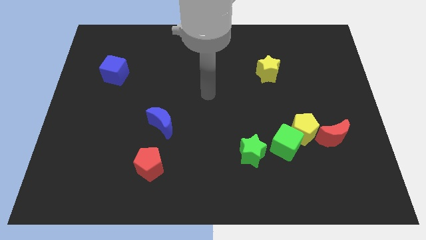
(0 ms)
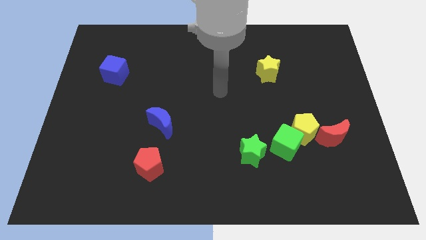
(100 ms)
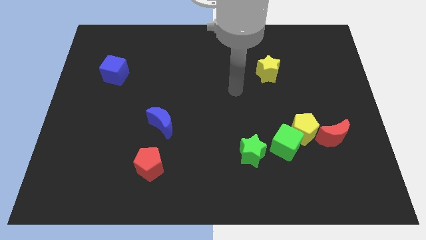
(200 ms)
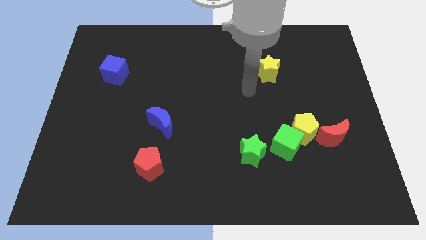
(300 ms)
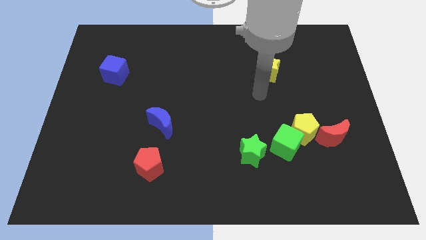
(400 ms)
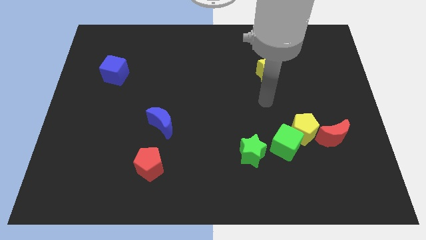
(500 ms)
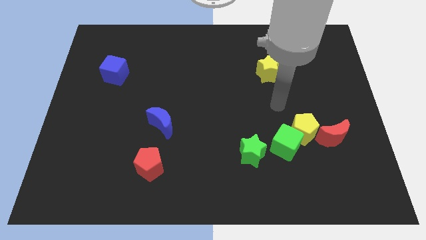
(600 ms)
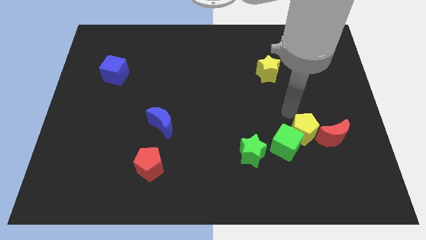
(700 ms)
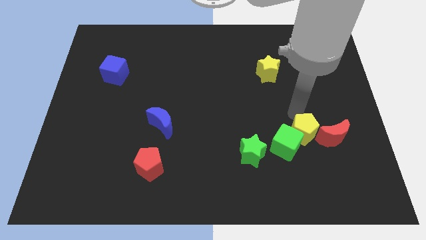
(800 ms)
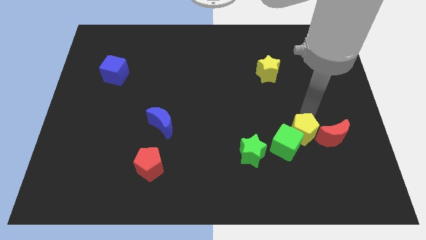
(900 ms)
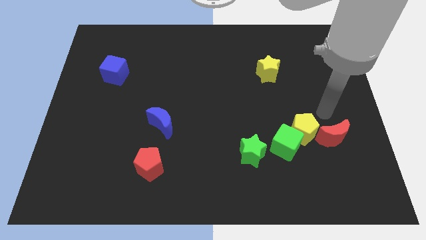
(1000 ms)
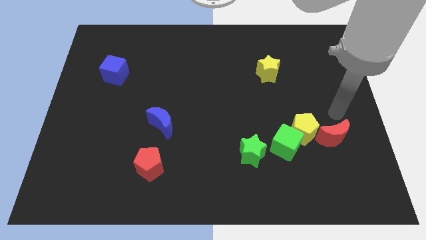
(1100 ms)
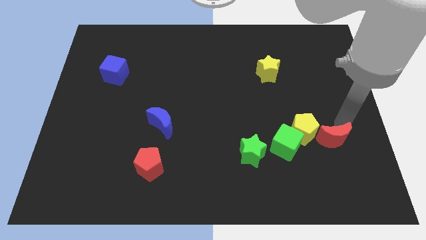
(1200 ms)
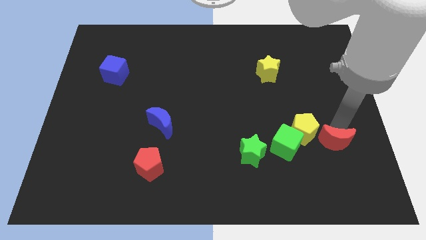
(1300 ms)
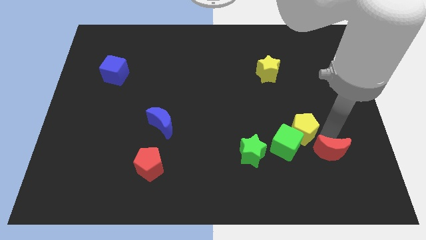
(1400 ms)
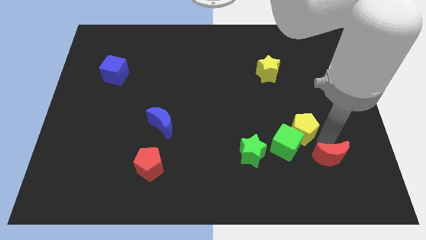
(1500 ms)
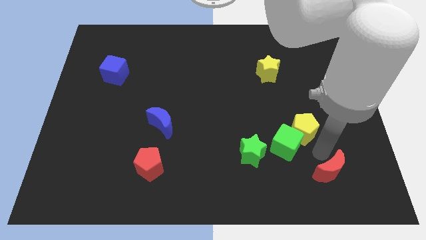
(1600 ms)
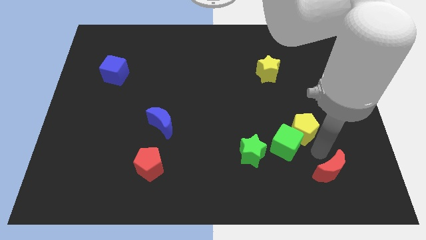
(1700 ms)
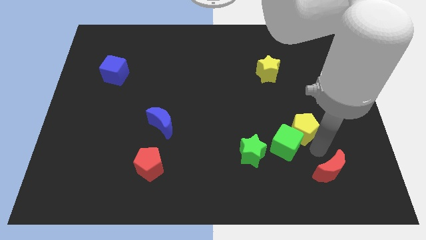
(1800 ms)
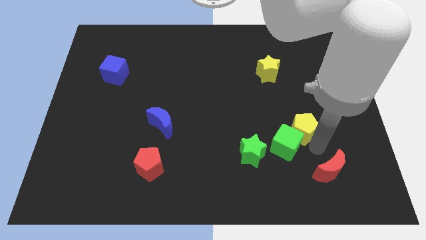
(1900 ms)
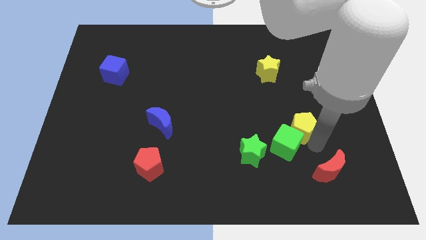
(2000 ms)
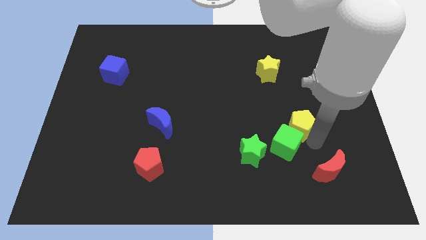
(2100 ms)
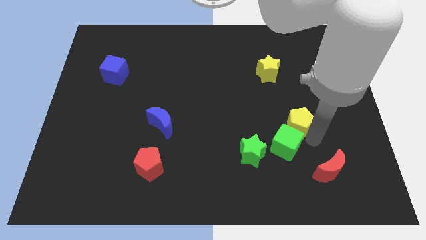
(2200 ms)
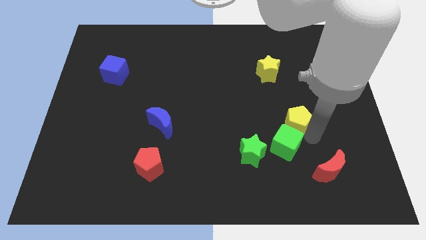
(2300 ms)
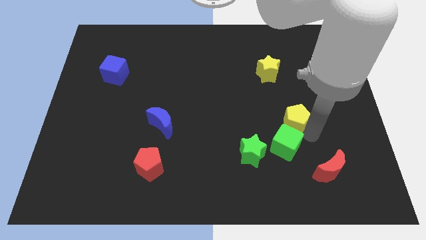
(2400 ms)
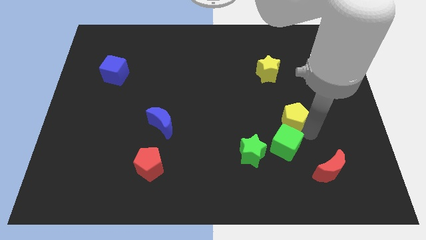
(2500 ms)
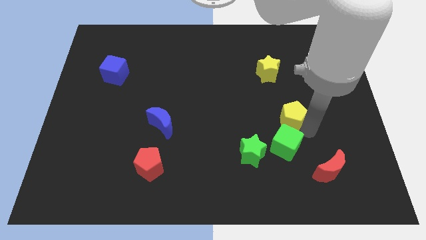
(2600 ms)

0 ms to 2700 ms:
pull the yellow pentagon apart from the green cube and red moon

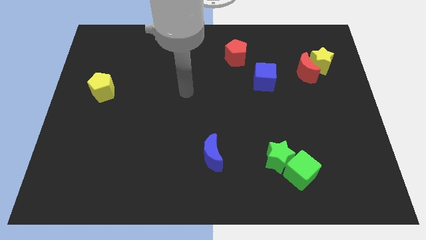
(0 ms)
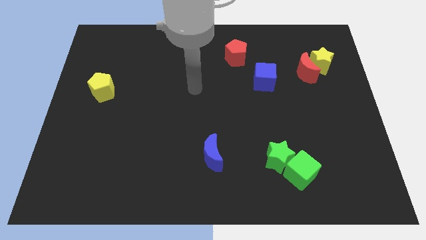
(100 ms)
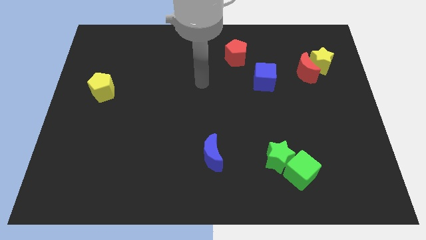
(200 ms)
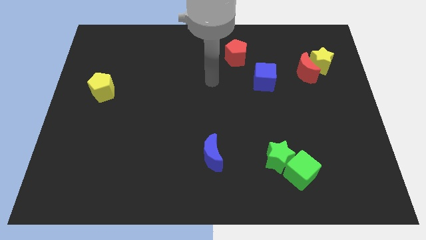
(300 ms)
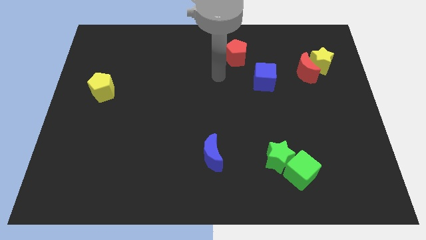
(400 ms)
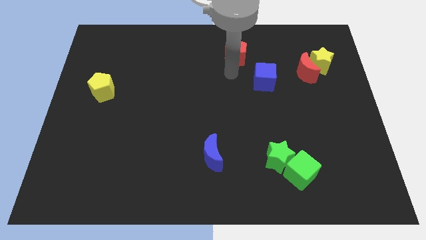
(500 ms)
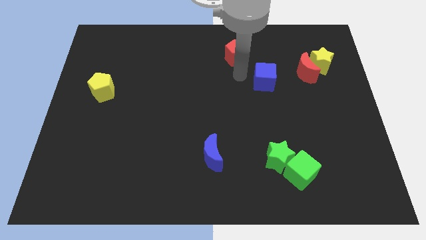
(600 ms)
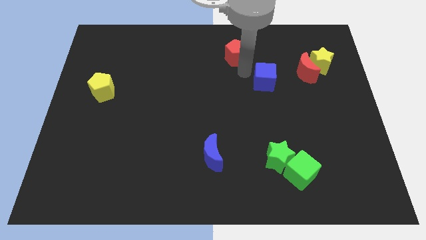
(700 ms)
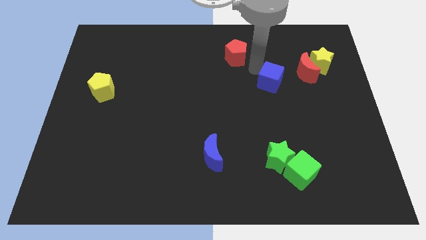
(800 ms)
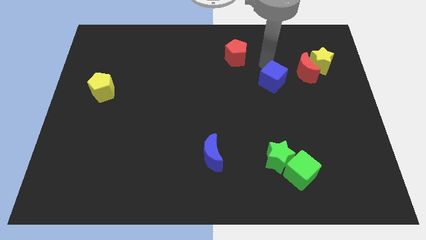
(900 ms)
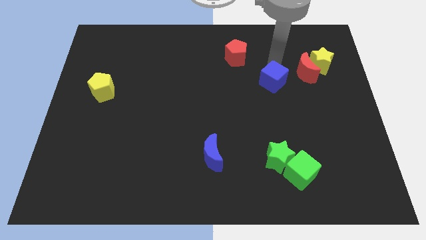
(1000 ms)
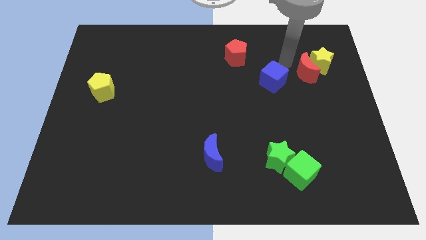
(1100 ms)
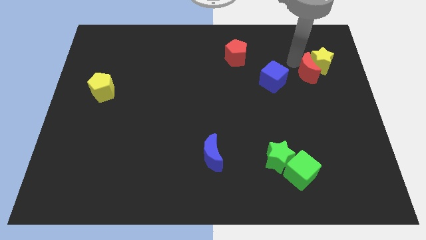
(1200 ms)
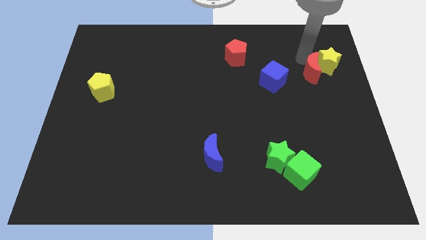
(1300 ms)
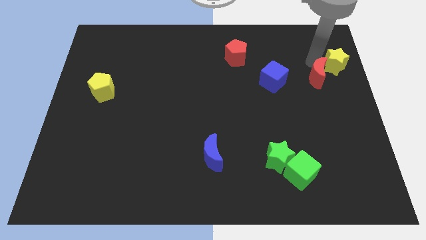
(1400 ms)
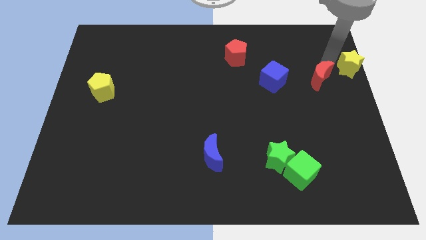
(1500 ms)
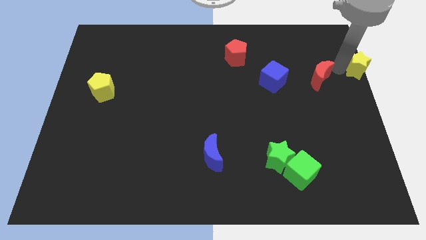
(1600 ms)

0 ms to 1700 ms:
separate the red moon from the yellow star

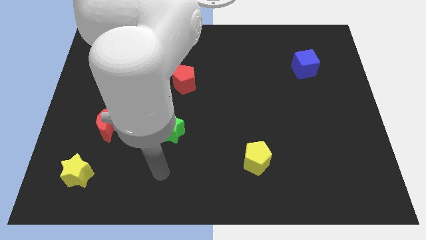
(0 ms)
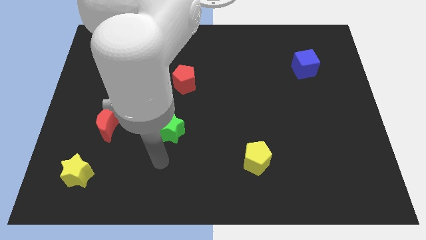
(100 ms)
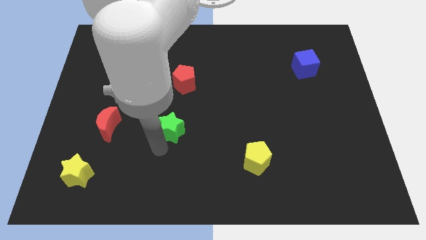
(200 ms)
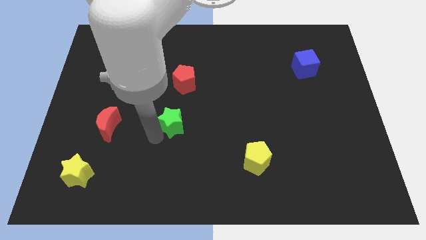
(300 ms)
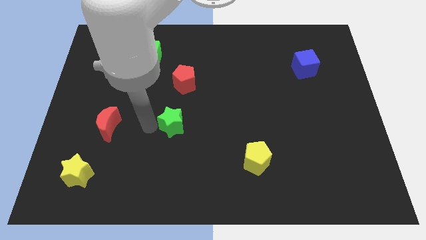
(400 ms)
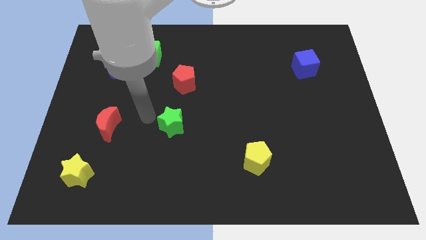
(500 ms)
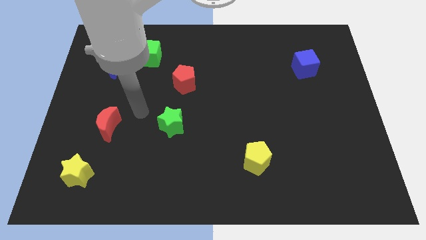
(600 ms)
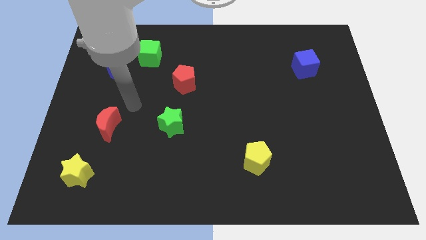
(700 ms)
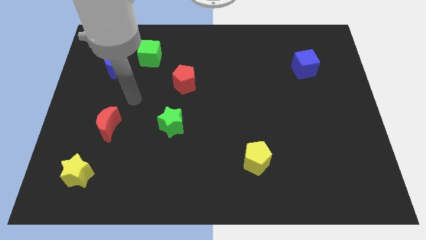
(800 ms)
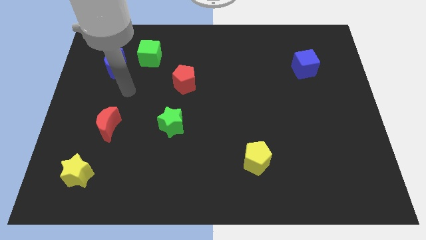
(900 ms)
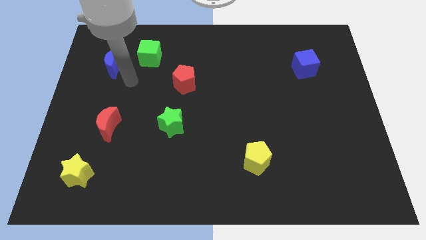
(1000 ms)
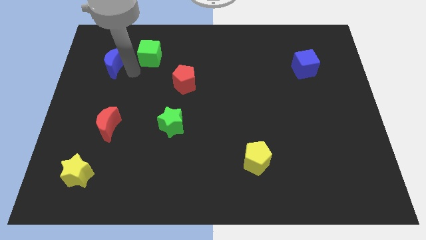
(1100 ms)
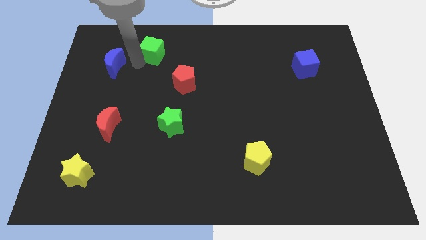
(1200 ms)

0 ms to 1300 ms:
pull the blue moon apart from the green cube

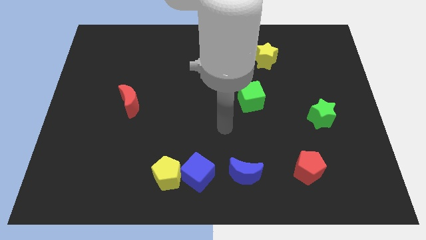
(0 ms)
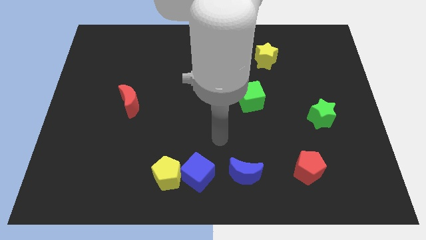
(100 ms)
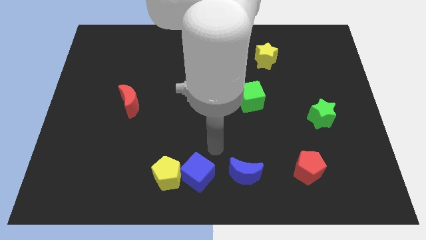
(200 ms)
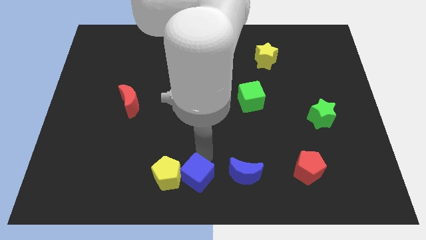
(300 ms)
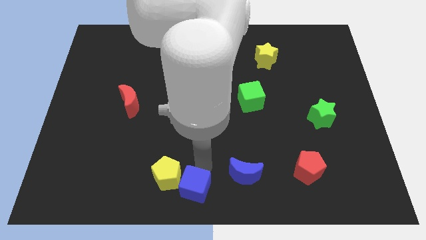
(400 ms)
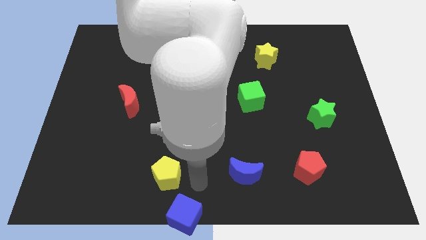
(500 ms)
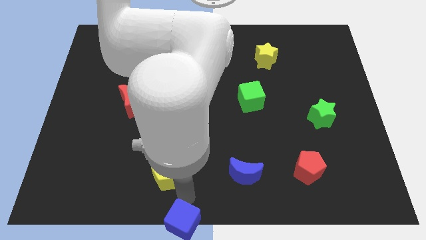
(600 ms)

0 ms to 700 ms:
separate the yellow pentagon from the blue cube

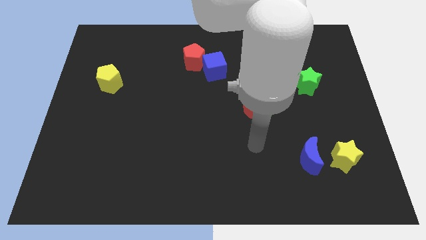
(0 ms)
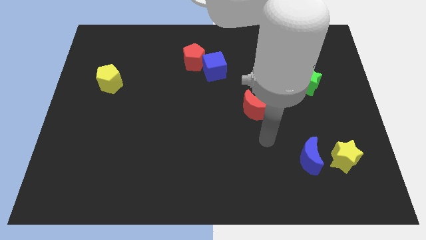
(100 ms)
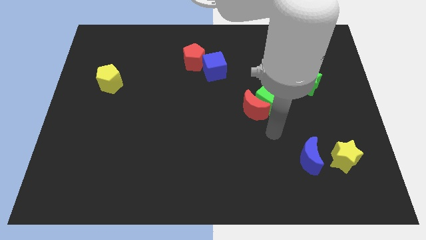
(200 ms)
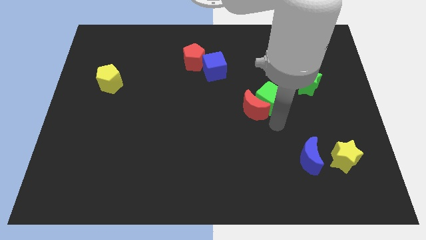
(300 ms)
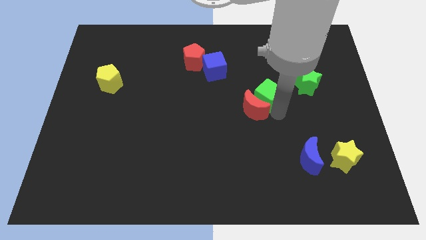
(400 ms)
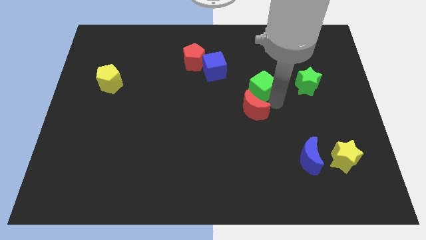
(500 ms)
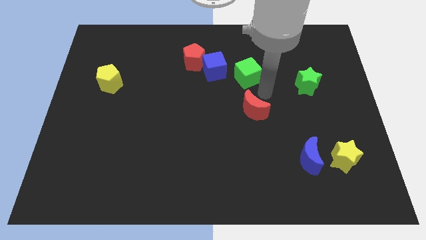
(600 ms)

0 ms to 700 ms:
separate the red moon from the green cube

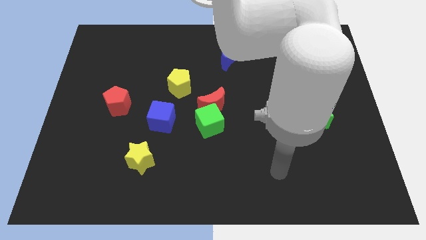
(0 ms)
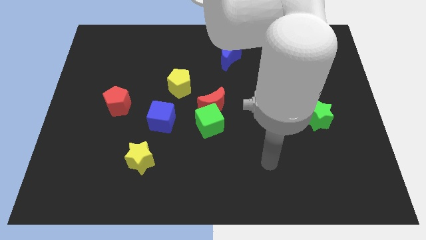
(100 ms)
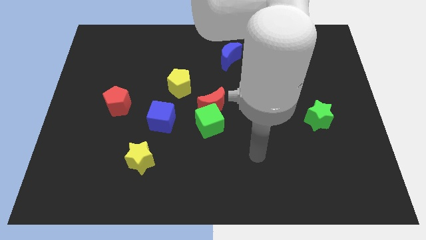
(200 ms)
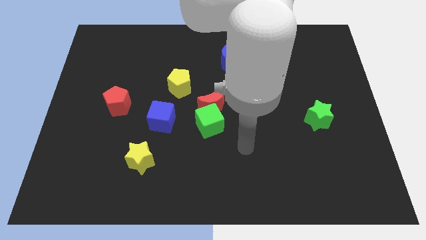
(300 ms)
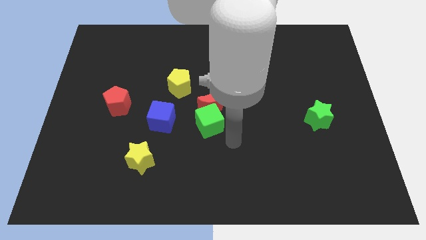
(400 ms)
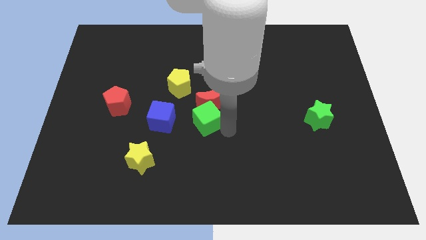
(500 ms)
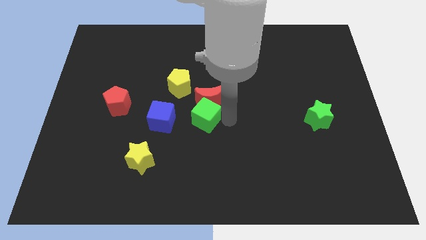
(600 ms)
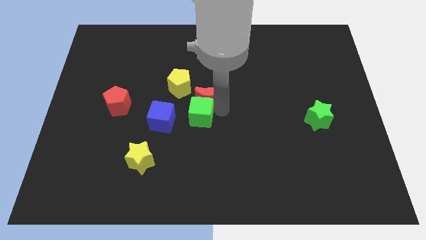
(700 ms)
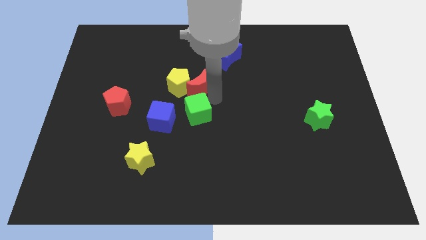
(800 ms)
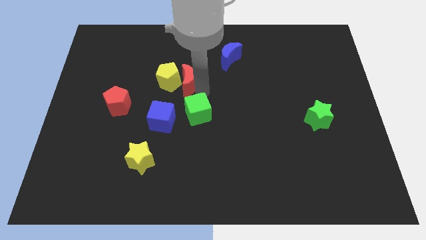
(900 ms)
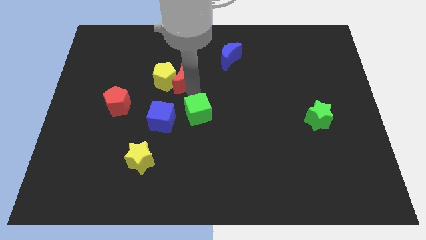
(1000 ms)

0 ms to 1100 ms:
move the green cube away from the red moon

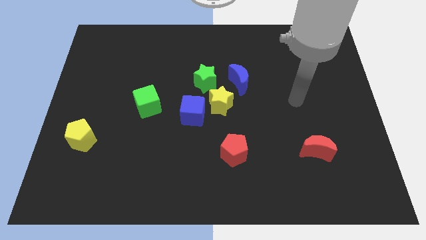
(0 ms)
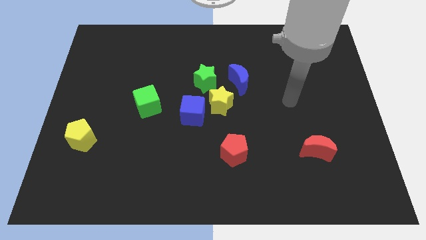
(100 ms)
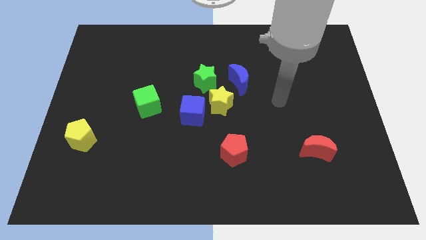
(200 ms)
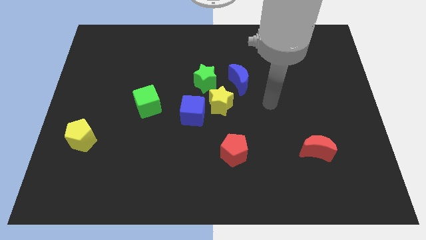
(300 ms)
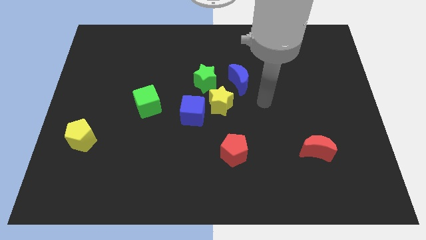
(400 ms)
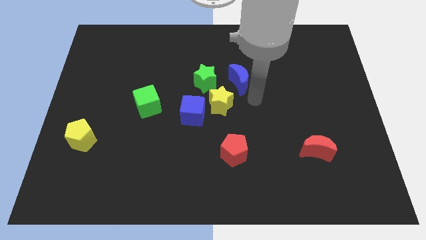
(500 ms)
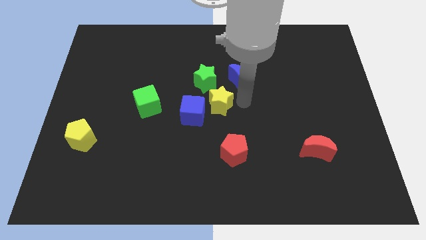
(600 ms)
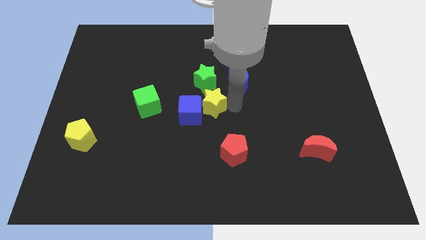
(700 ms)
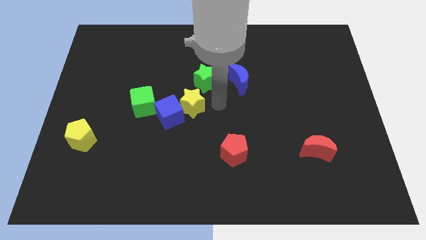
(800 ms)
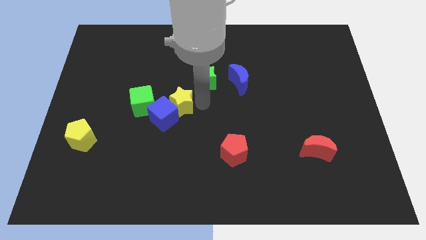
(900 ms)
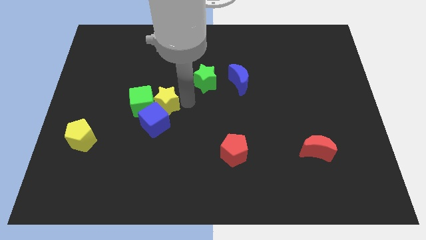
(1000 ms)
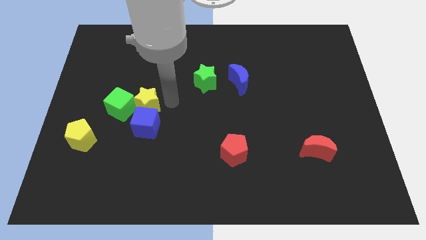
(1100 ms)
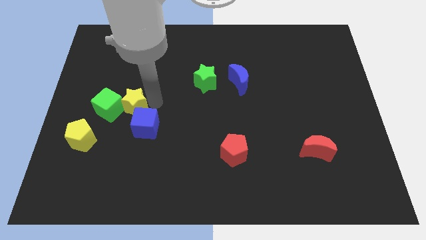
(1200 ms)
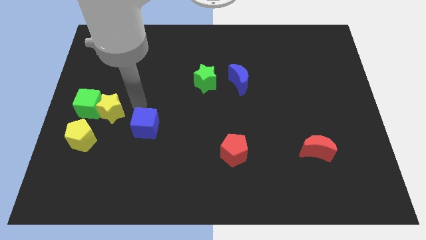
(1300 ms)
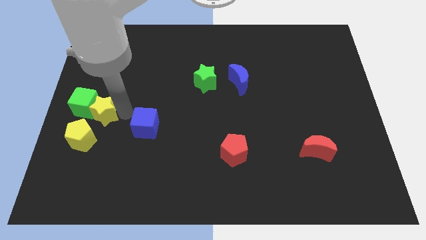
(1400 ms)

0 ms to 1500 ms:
pull the blue cube apart from the yellow star
